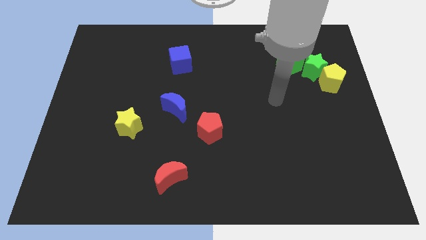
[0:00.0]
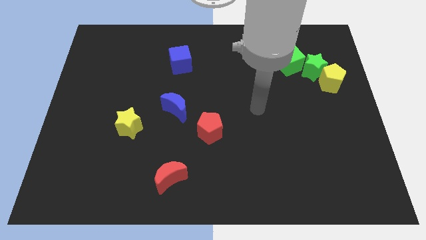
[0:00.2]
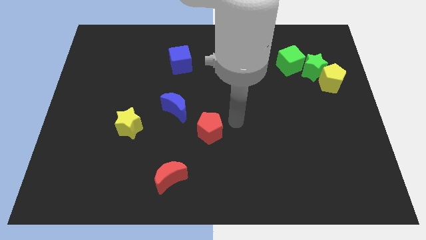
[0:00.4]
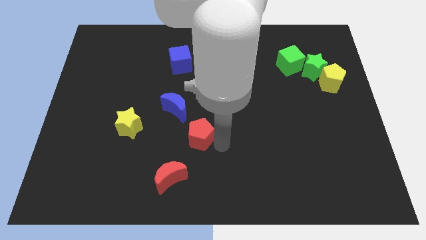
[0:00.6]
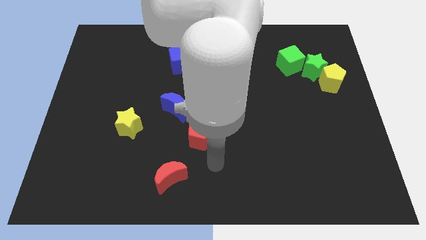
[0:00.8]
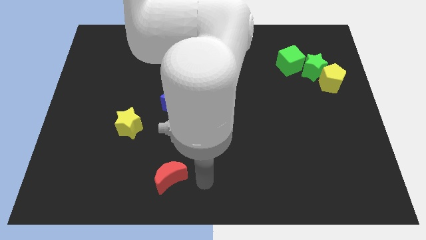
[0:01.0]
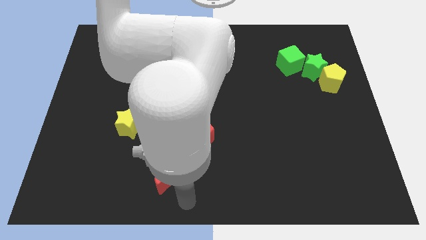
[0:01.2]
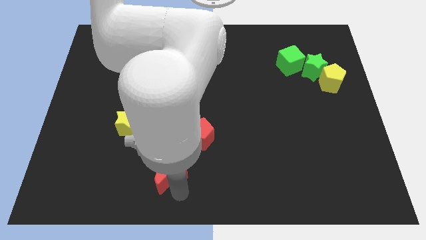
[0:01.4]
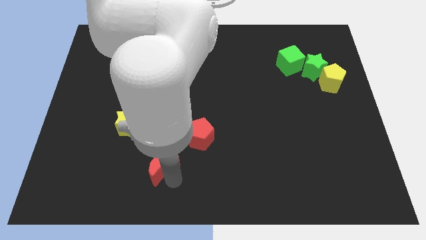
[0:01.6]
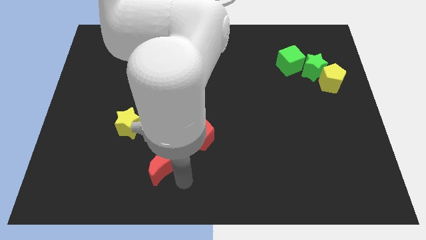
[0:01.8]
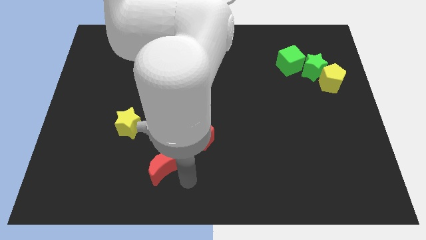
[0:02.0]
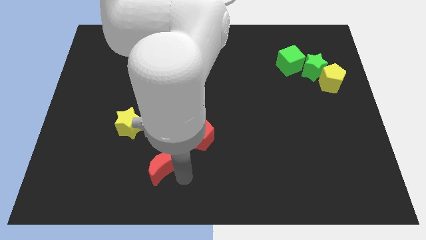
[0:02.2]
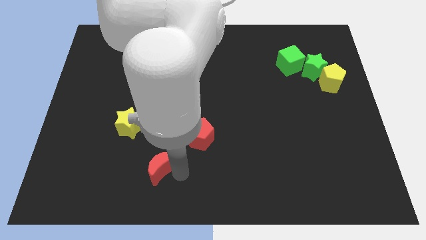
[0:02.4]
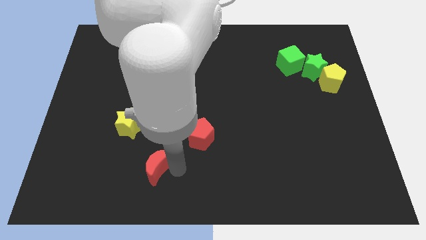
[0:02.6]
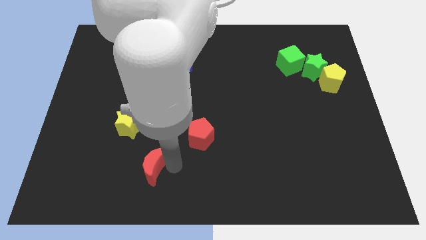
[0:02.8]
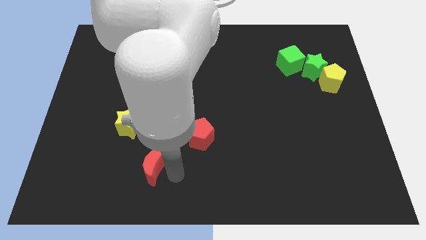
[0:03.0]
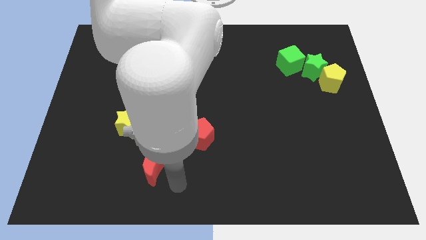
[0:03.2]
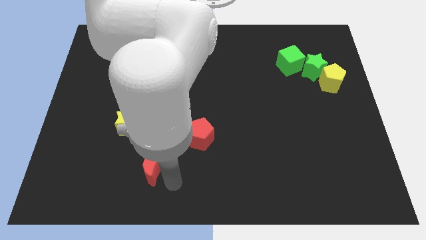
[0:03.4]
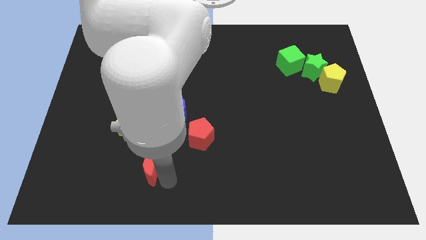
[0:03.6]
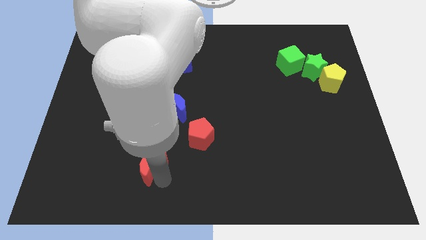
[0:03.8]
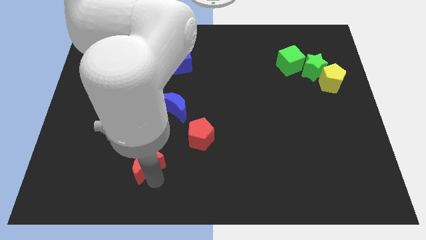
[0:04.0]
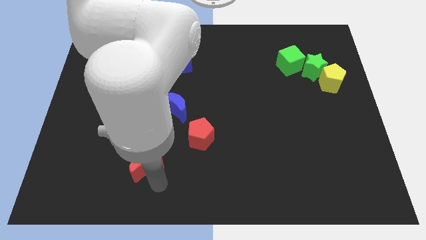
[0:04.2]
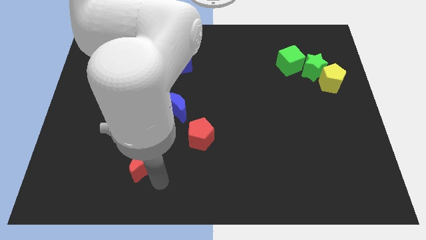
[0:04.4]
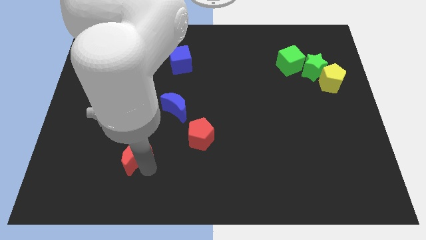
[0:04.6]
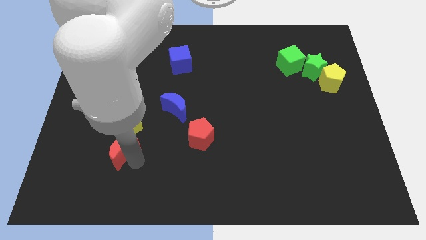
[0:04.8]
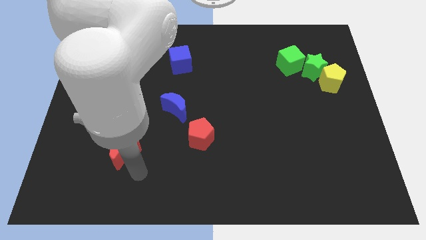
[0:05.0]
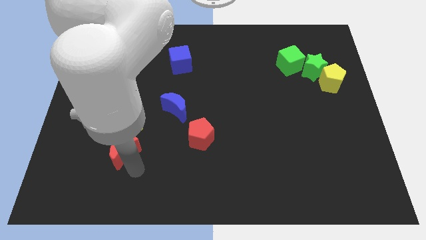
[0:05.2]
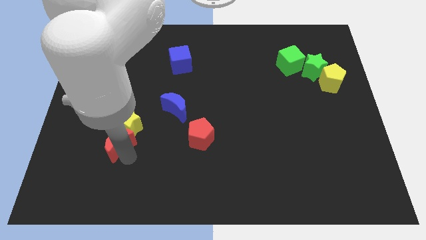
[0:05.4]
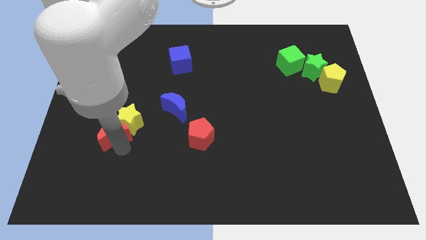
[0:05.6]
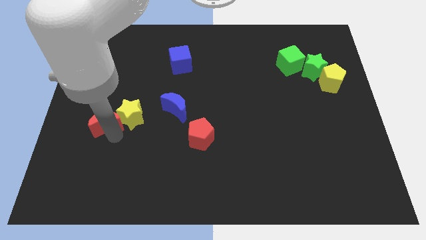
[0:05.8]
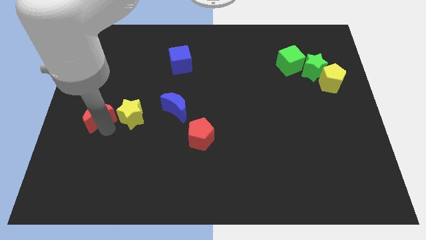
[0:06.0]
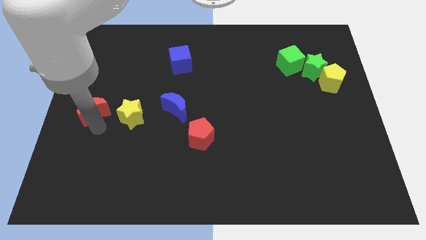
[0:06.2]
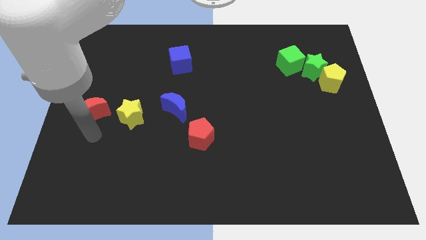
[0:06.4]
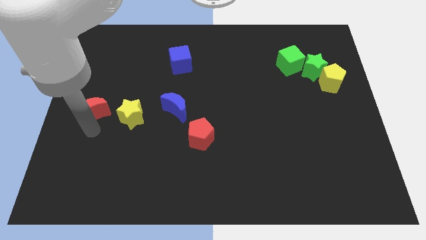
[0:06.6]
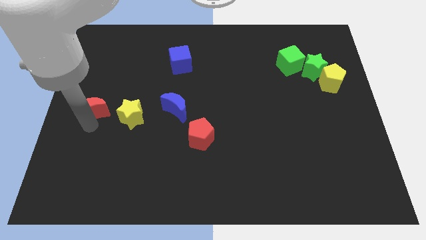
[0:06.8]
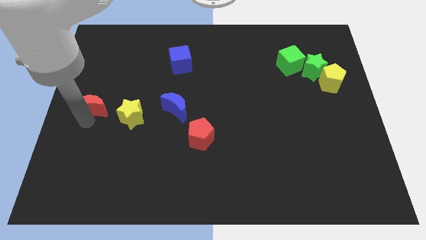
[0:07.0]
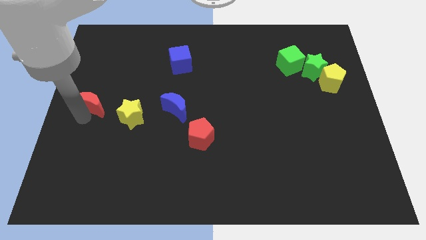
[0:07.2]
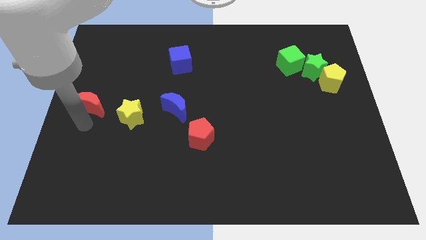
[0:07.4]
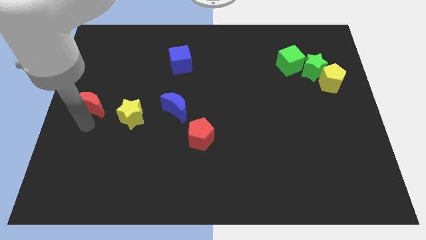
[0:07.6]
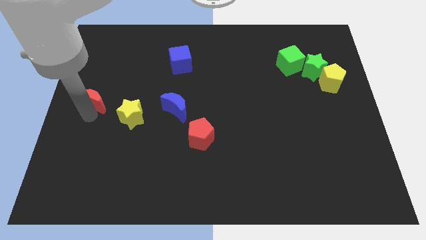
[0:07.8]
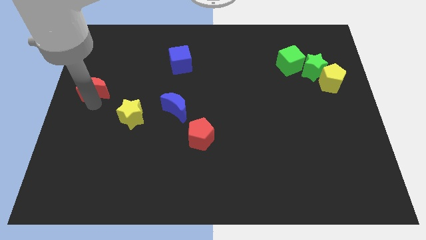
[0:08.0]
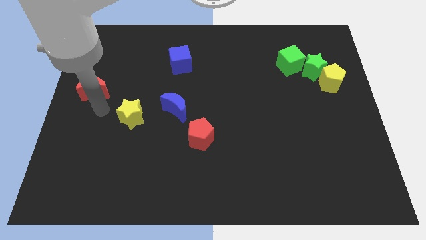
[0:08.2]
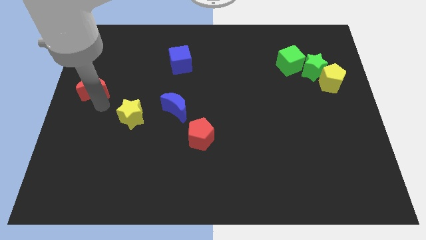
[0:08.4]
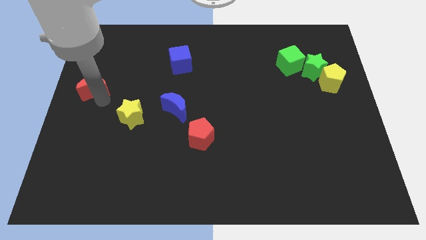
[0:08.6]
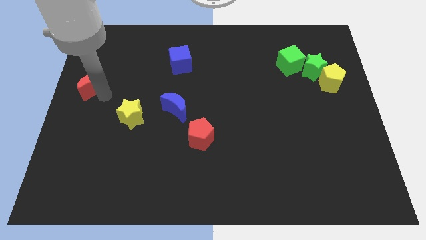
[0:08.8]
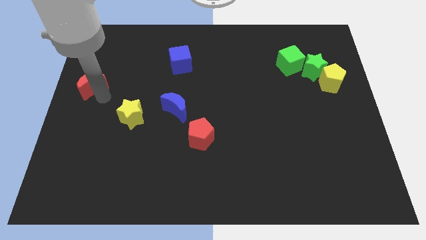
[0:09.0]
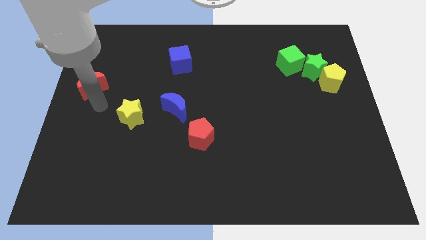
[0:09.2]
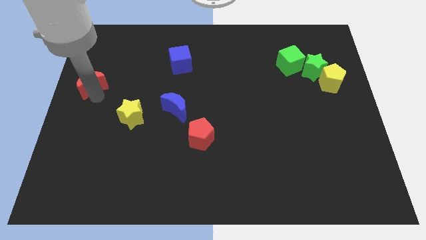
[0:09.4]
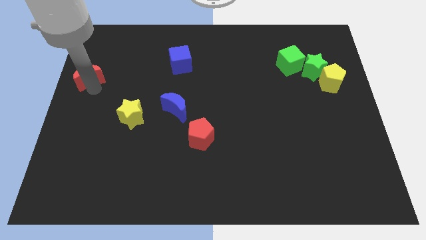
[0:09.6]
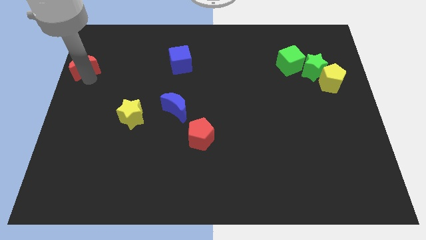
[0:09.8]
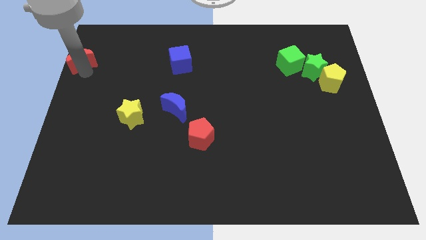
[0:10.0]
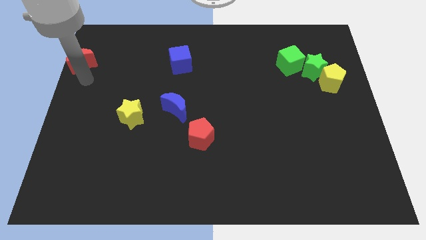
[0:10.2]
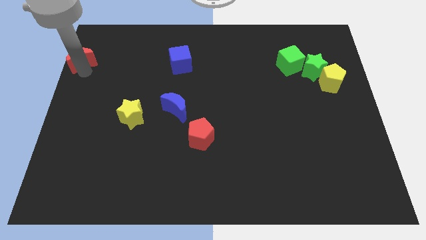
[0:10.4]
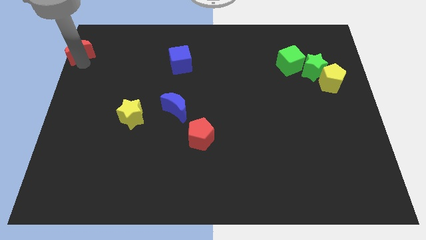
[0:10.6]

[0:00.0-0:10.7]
push the red moon to the top left corner

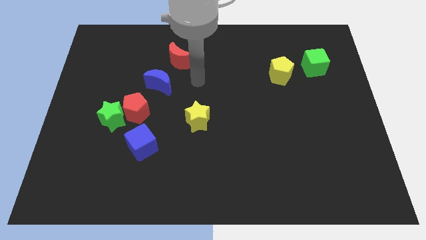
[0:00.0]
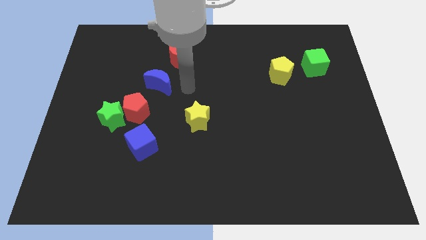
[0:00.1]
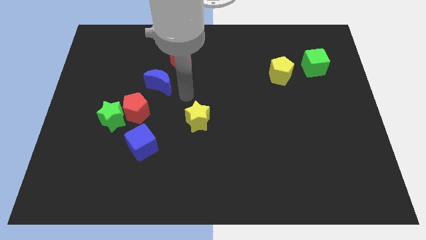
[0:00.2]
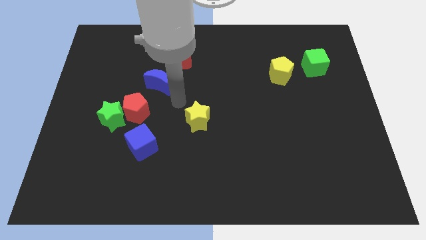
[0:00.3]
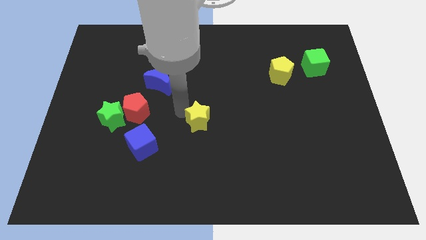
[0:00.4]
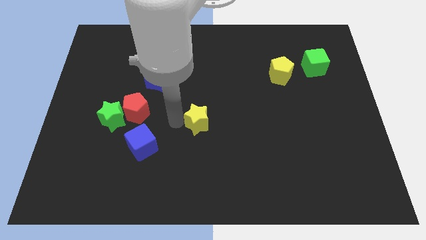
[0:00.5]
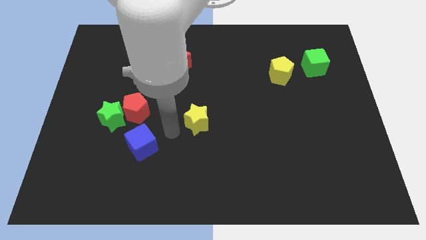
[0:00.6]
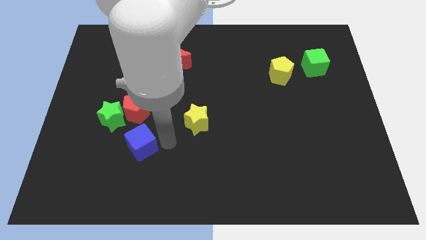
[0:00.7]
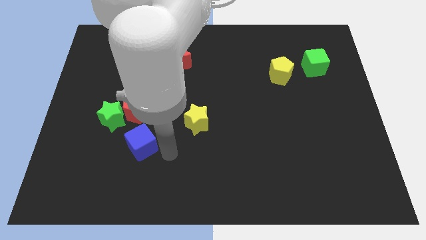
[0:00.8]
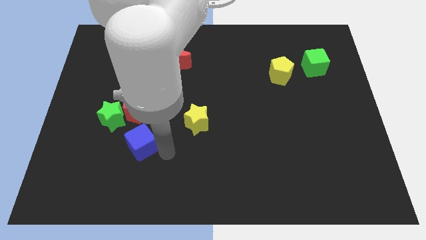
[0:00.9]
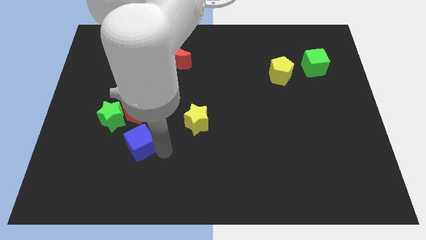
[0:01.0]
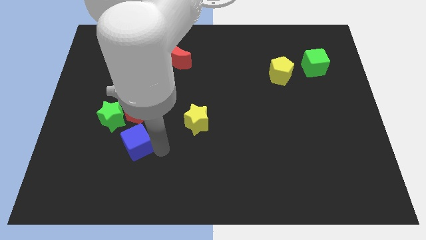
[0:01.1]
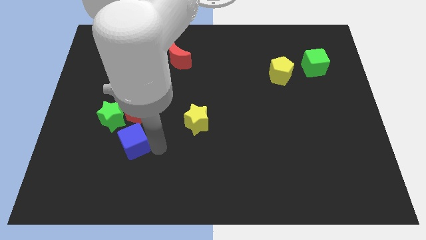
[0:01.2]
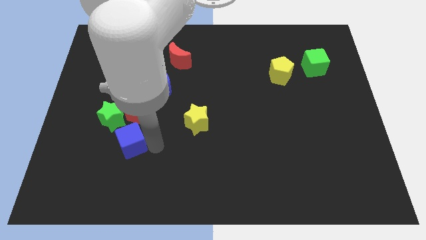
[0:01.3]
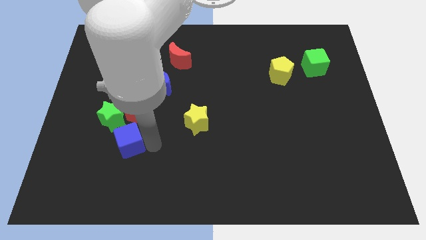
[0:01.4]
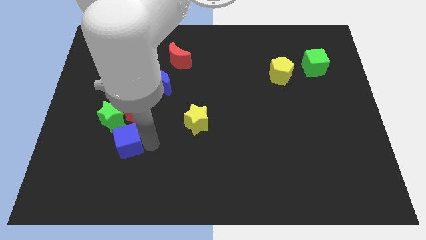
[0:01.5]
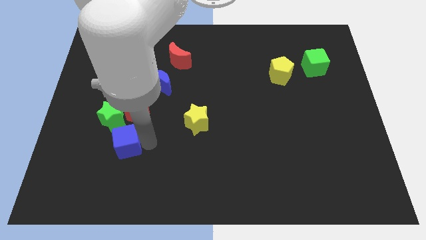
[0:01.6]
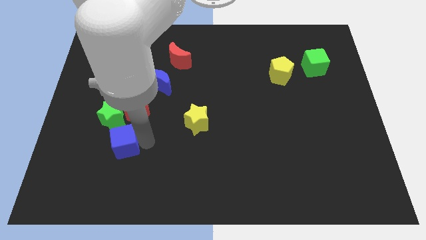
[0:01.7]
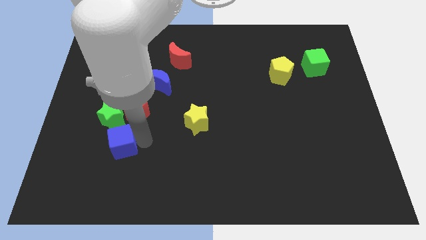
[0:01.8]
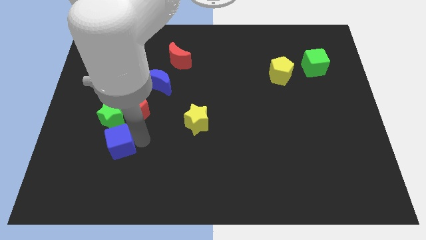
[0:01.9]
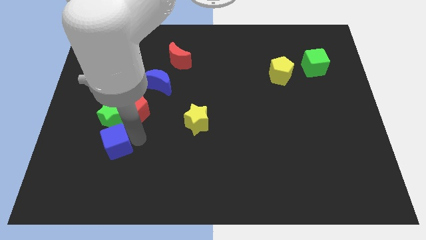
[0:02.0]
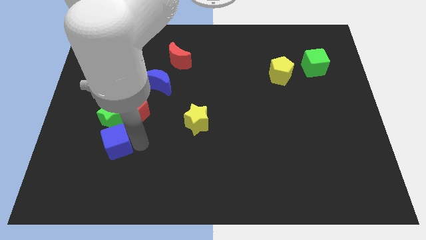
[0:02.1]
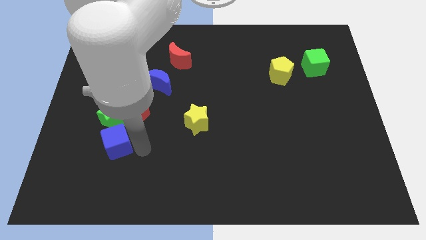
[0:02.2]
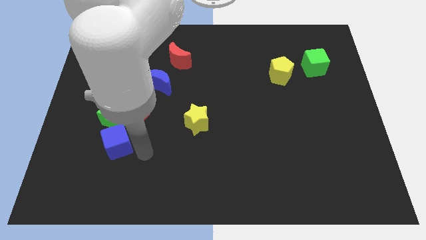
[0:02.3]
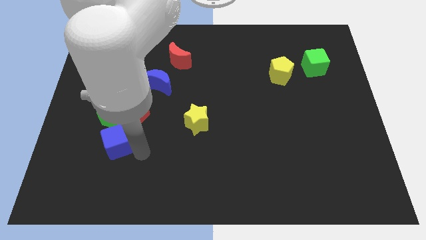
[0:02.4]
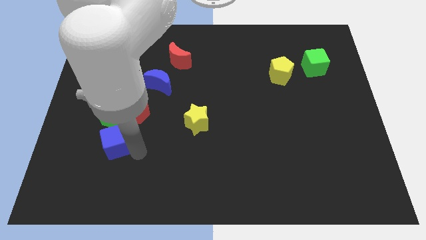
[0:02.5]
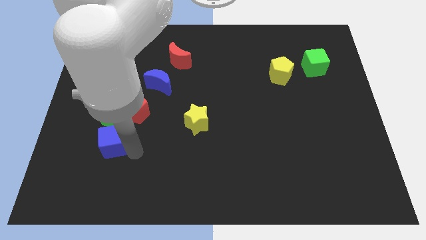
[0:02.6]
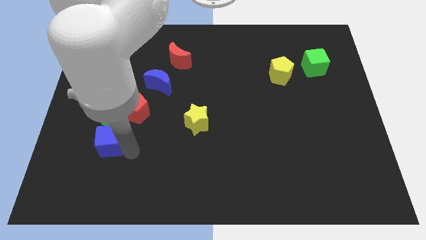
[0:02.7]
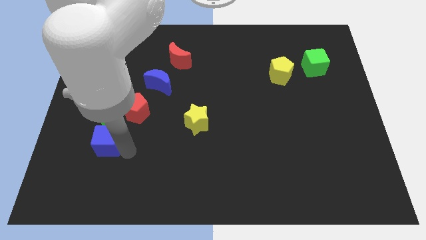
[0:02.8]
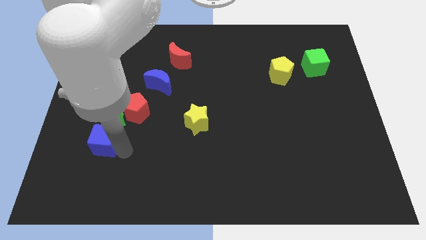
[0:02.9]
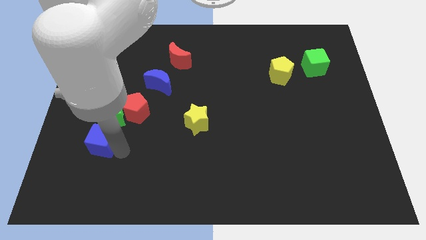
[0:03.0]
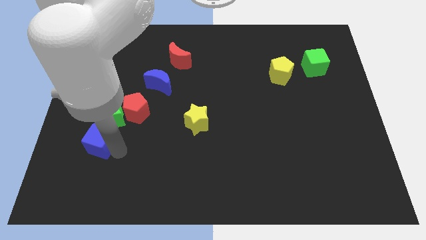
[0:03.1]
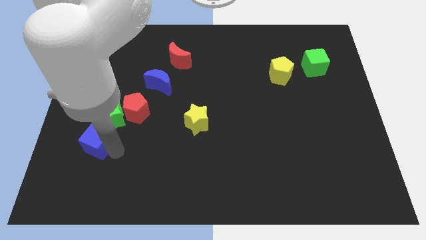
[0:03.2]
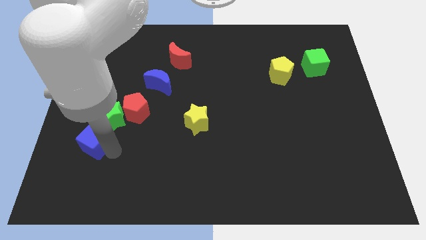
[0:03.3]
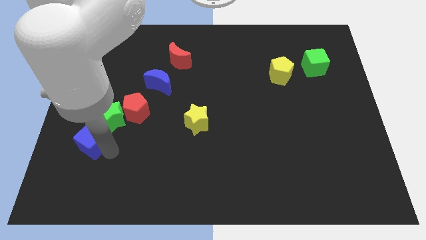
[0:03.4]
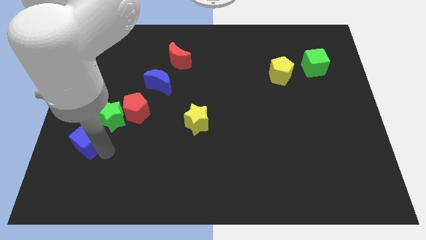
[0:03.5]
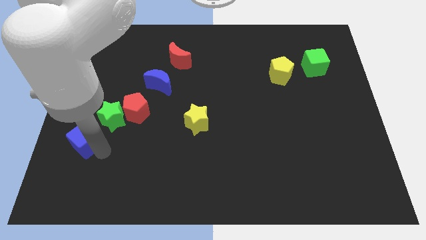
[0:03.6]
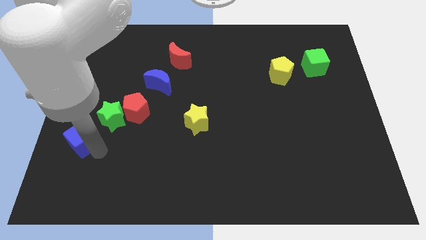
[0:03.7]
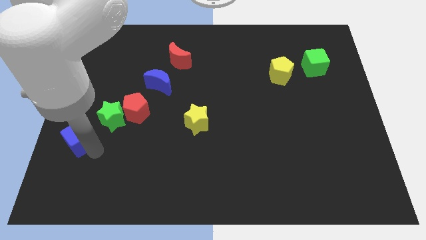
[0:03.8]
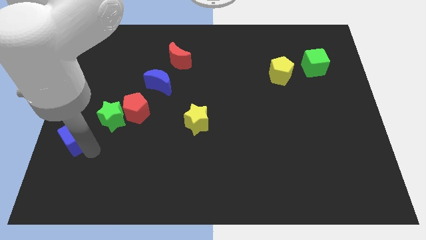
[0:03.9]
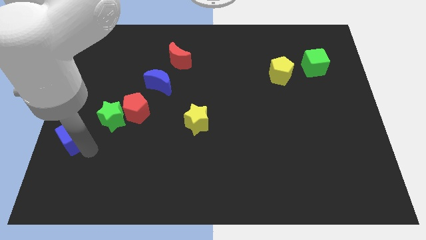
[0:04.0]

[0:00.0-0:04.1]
slide the blue cube to the center left
